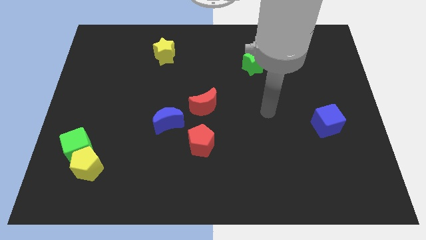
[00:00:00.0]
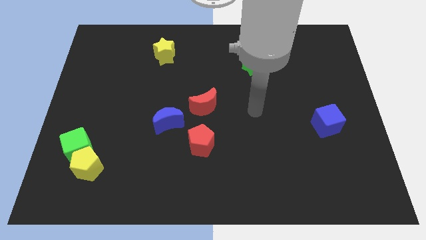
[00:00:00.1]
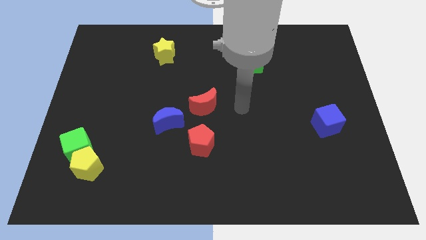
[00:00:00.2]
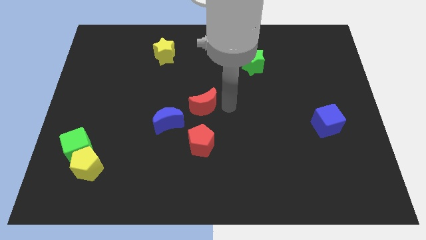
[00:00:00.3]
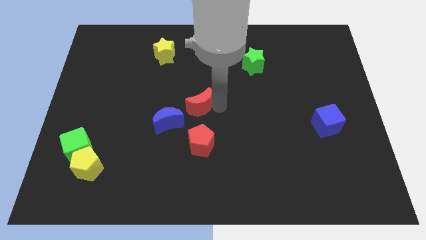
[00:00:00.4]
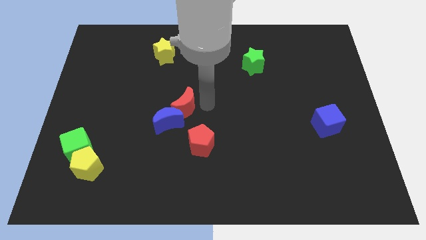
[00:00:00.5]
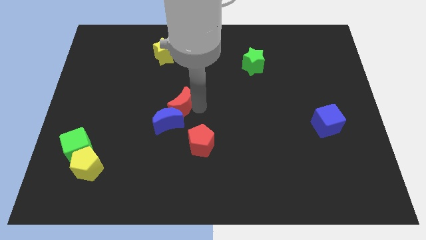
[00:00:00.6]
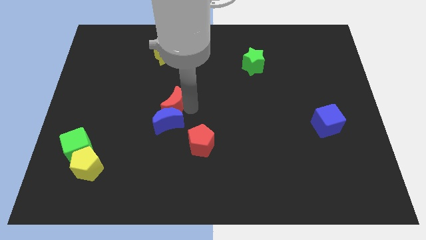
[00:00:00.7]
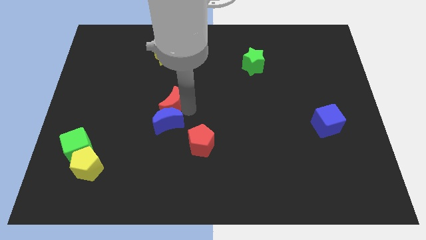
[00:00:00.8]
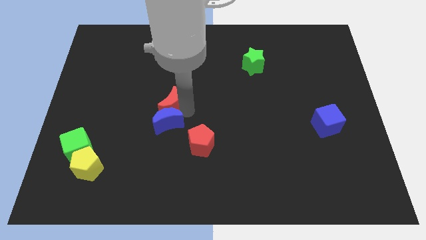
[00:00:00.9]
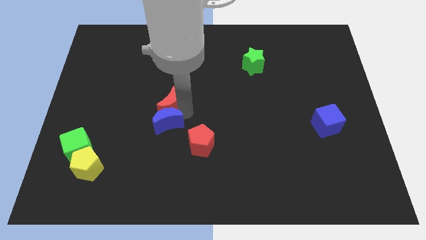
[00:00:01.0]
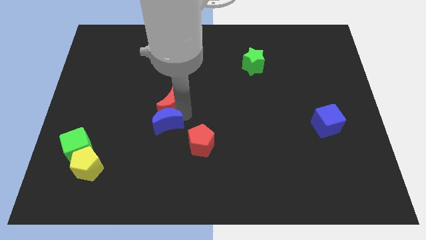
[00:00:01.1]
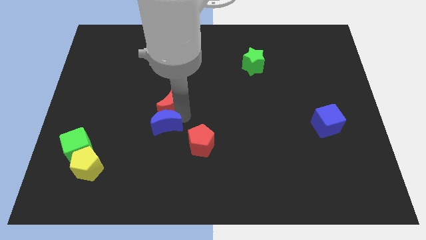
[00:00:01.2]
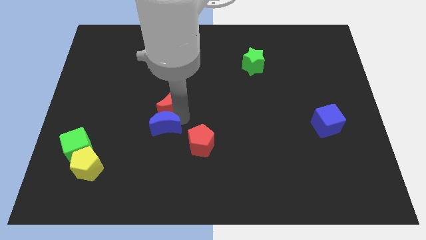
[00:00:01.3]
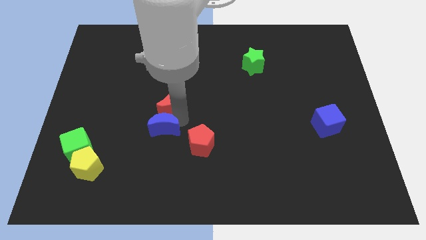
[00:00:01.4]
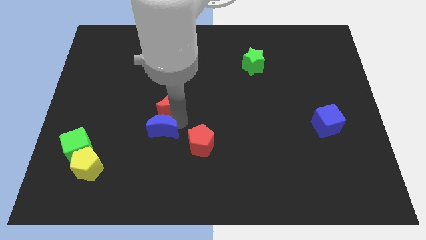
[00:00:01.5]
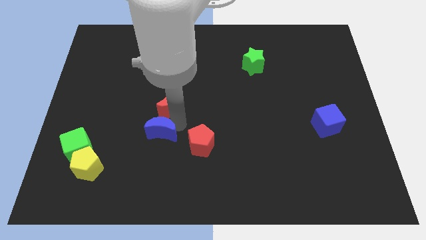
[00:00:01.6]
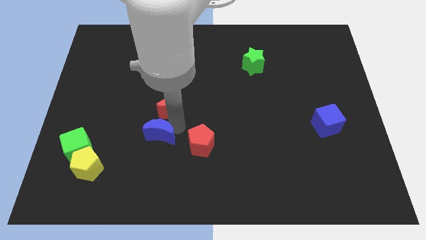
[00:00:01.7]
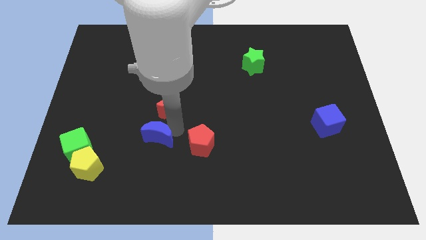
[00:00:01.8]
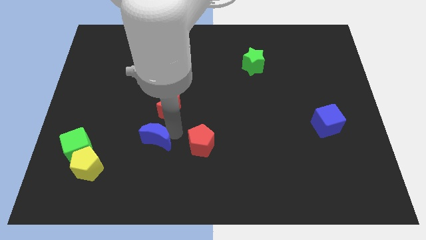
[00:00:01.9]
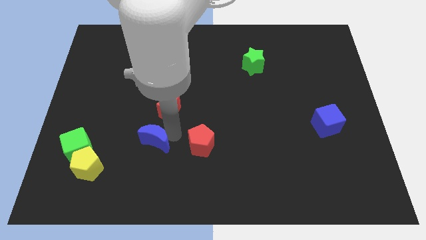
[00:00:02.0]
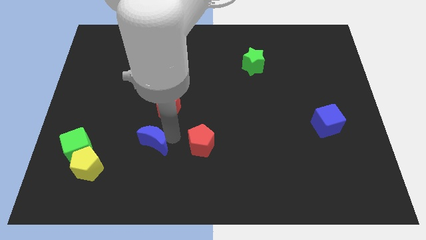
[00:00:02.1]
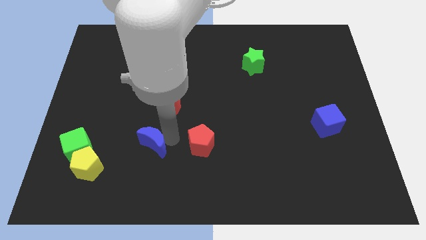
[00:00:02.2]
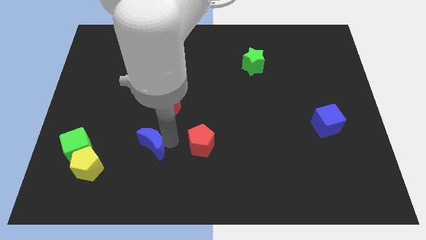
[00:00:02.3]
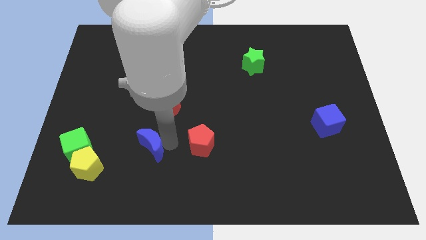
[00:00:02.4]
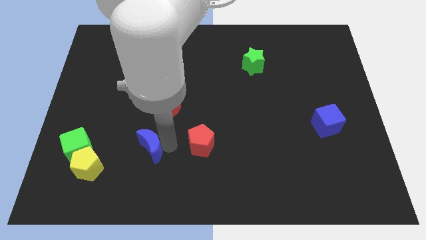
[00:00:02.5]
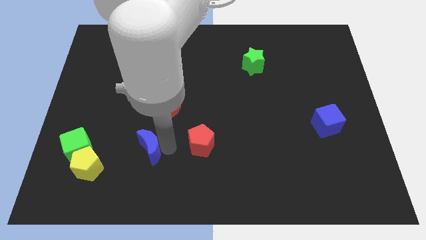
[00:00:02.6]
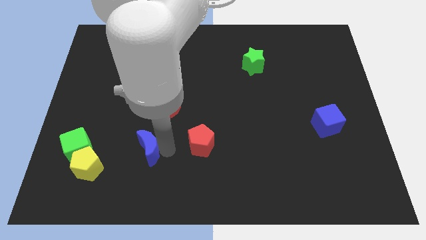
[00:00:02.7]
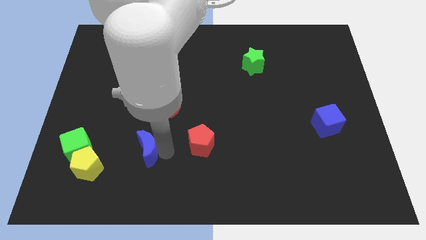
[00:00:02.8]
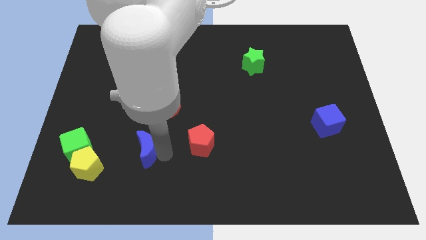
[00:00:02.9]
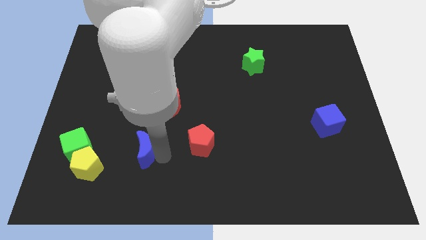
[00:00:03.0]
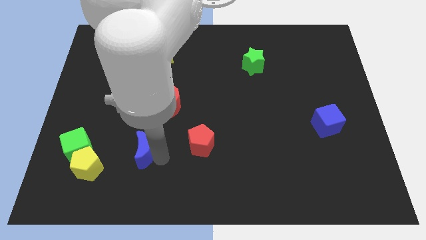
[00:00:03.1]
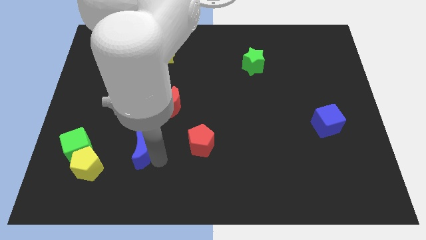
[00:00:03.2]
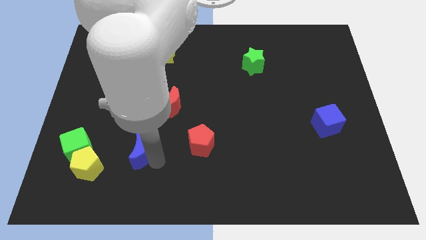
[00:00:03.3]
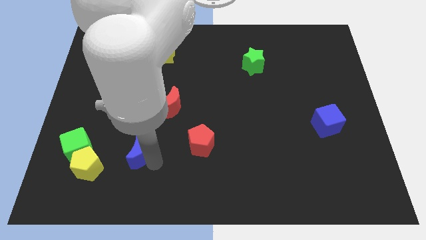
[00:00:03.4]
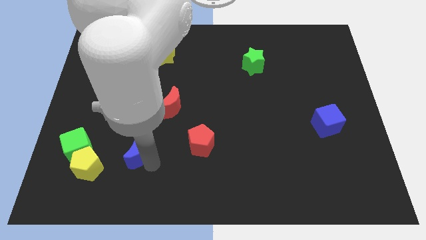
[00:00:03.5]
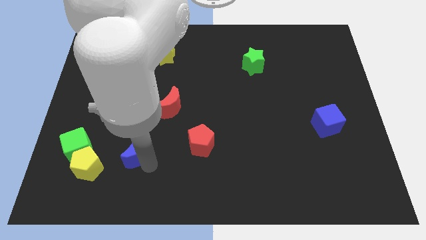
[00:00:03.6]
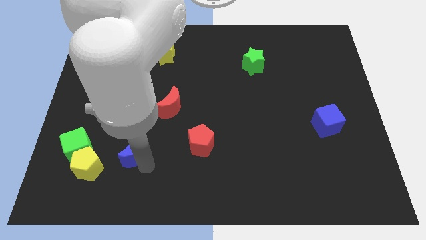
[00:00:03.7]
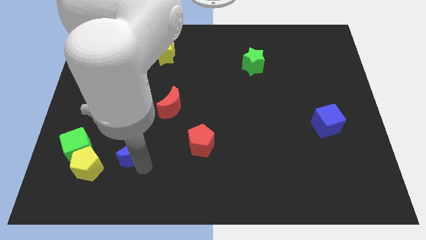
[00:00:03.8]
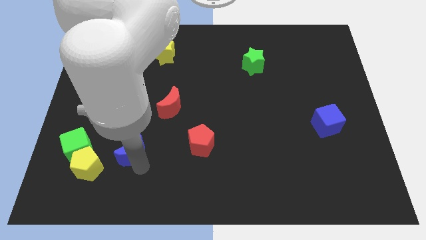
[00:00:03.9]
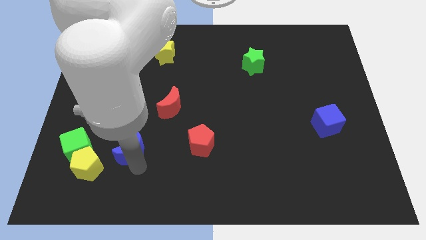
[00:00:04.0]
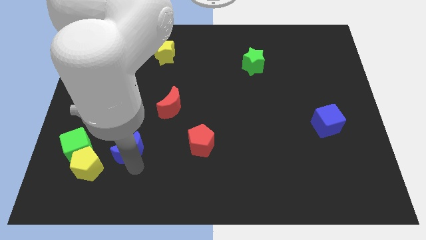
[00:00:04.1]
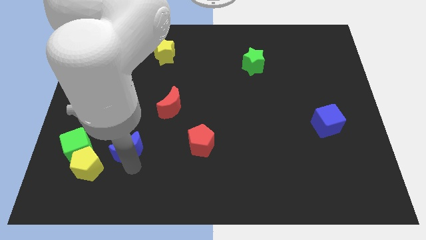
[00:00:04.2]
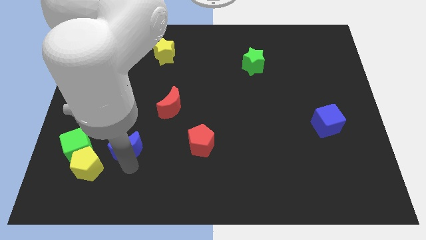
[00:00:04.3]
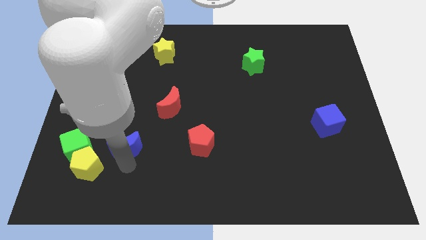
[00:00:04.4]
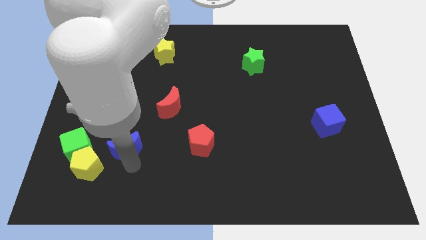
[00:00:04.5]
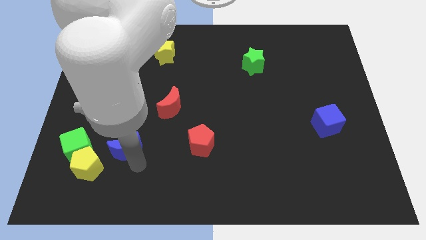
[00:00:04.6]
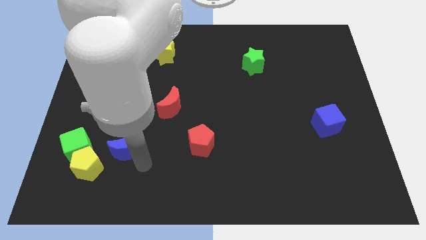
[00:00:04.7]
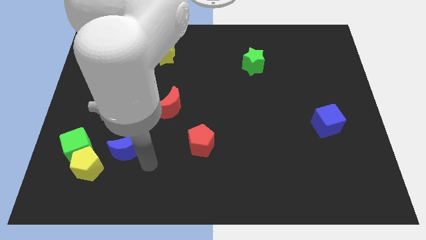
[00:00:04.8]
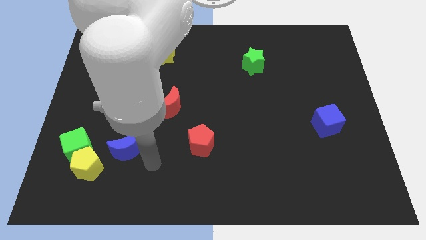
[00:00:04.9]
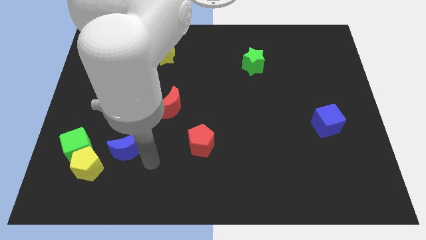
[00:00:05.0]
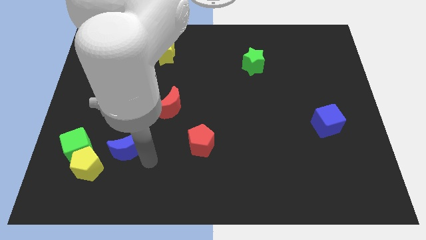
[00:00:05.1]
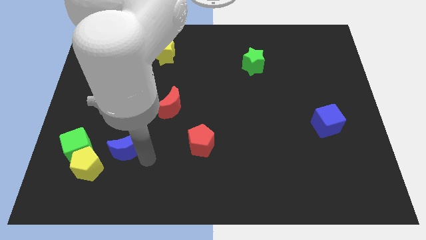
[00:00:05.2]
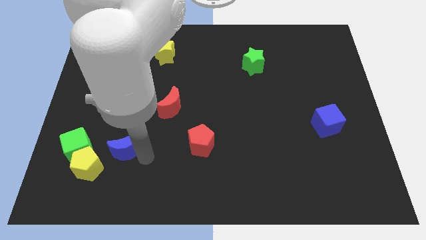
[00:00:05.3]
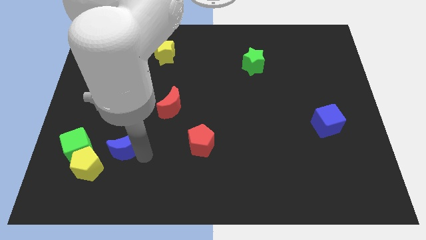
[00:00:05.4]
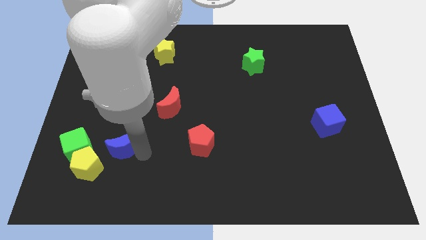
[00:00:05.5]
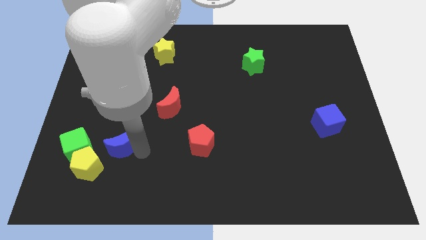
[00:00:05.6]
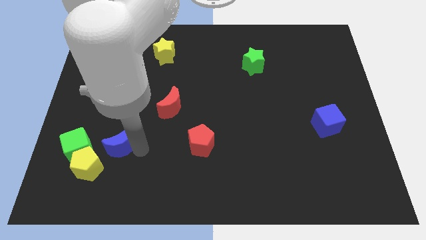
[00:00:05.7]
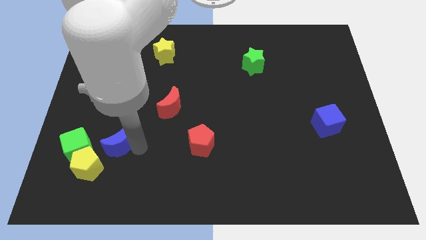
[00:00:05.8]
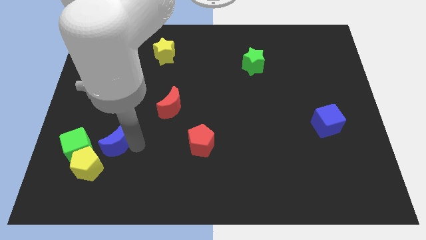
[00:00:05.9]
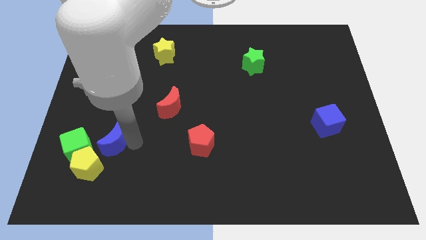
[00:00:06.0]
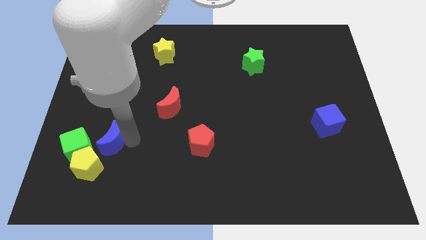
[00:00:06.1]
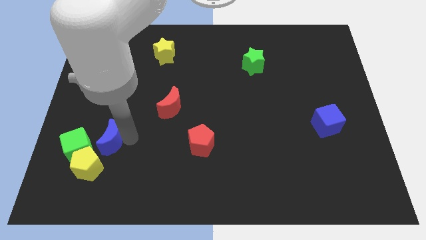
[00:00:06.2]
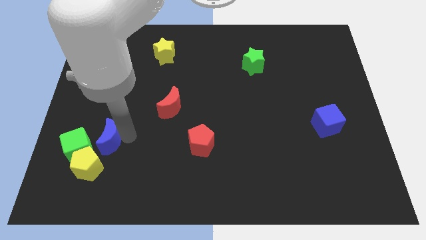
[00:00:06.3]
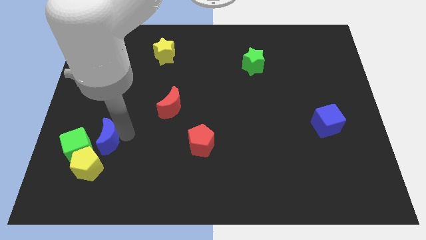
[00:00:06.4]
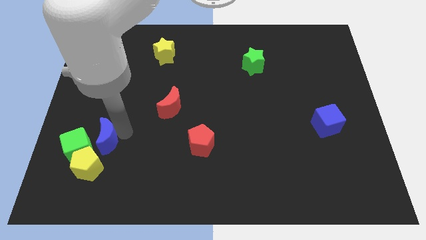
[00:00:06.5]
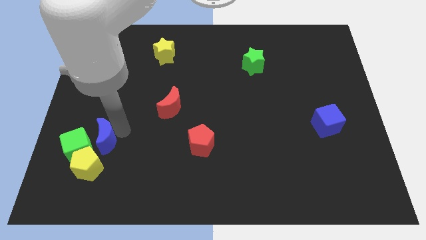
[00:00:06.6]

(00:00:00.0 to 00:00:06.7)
push the blue moon towards the green cube
